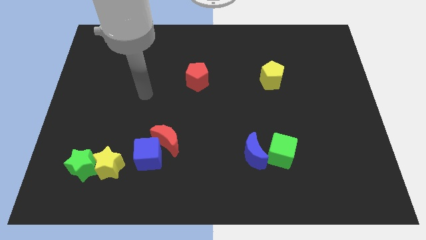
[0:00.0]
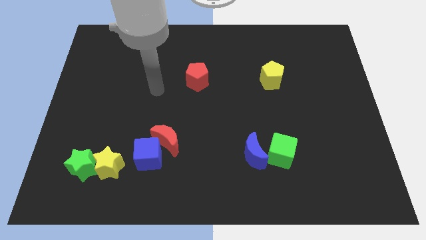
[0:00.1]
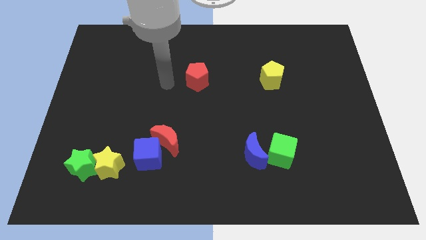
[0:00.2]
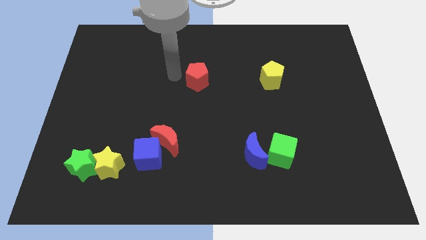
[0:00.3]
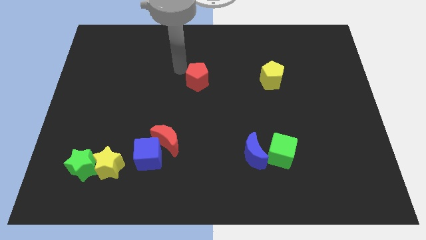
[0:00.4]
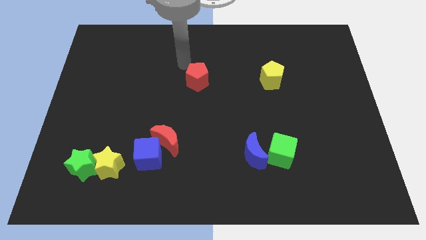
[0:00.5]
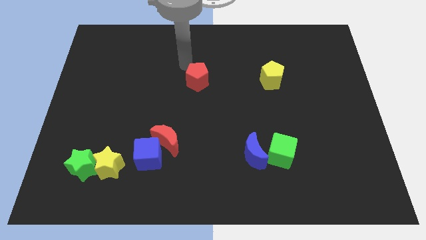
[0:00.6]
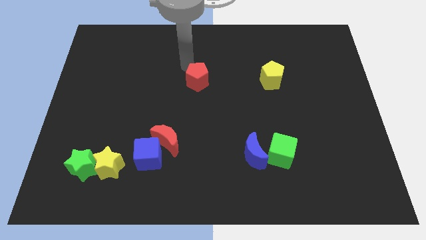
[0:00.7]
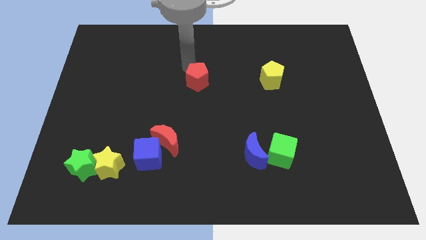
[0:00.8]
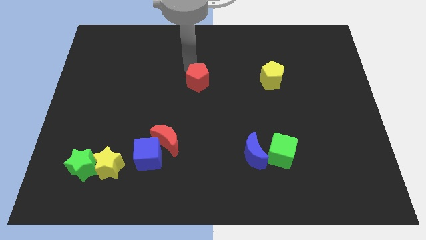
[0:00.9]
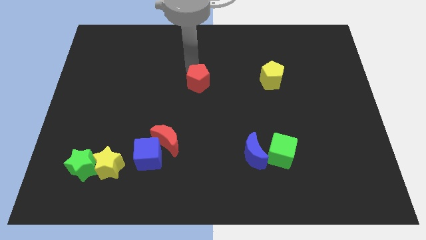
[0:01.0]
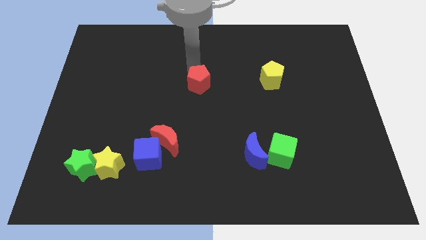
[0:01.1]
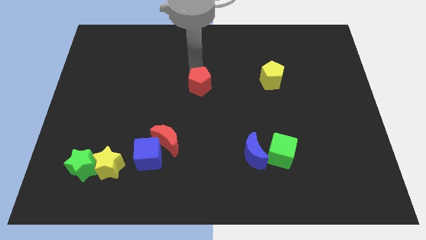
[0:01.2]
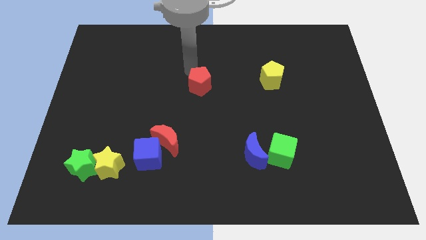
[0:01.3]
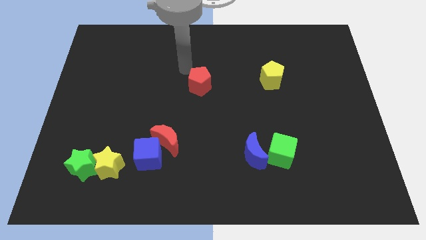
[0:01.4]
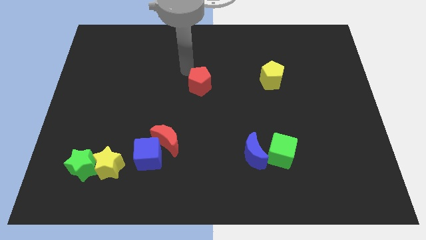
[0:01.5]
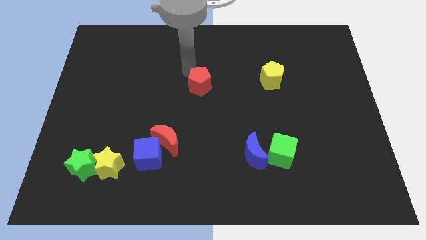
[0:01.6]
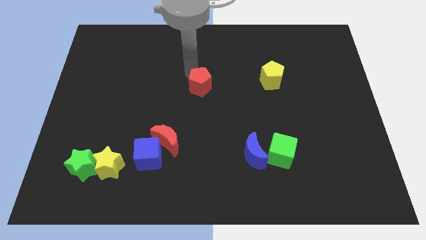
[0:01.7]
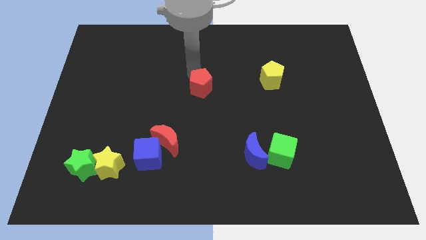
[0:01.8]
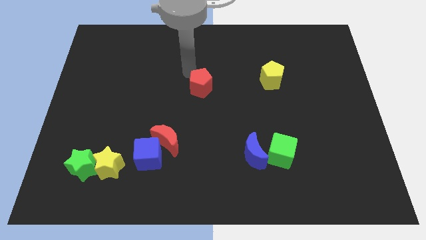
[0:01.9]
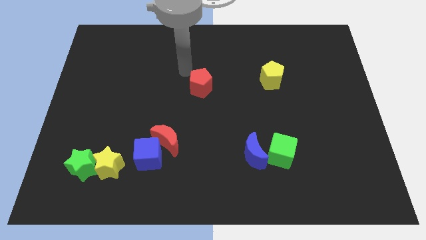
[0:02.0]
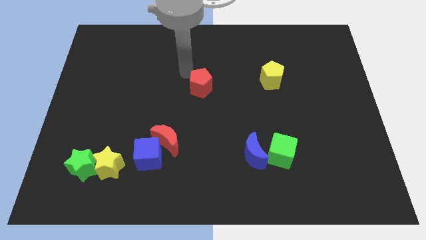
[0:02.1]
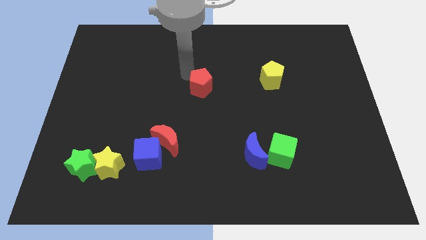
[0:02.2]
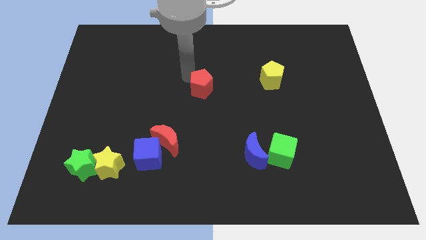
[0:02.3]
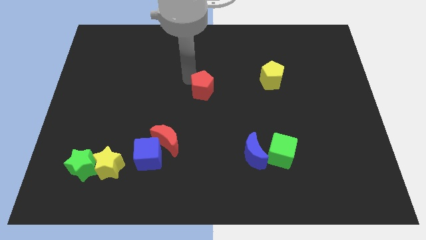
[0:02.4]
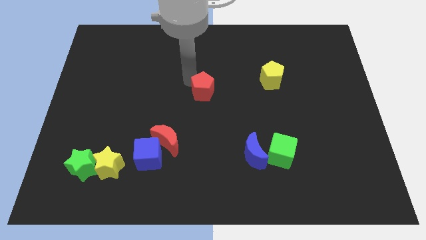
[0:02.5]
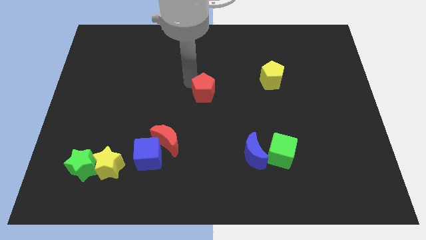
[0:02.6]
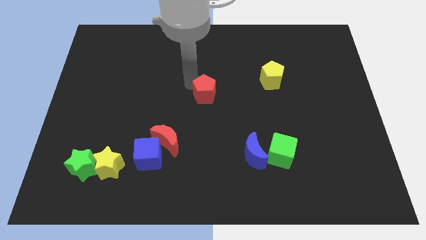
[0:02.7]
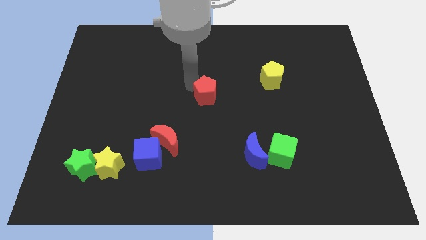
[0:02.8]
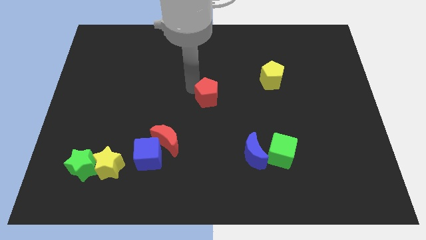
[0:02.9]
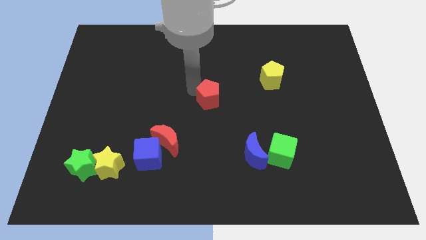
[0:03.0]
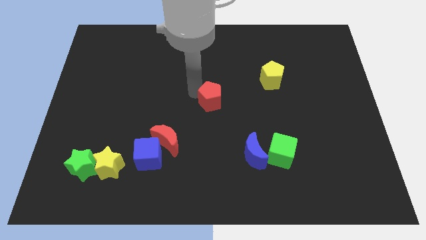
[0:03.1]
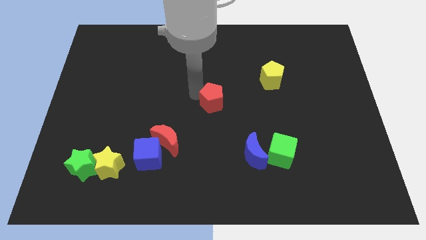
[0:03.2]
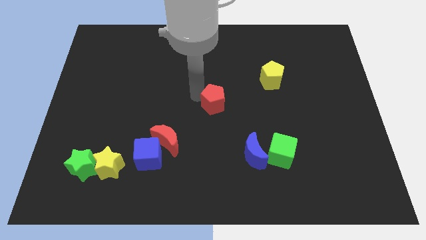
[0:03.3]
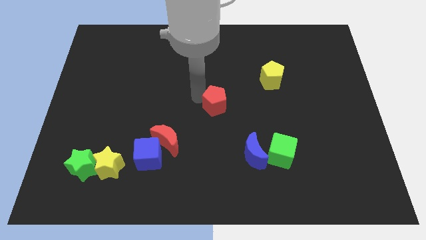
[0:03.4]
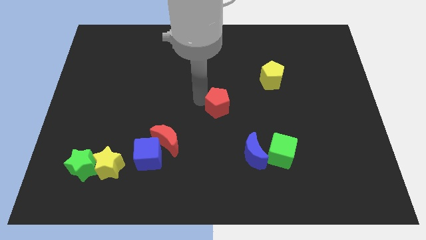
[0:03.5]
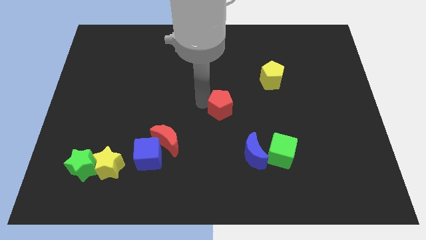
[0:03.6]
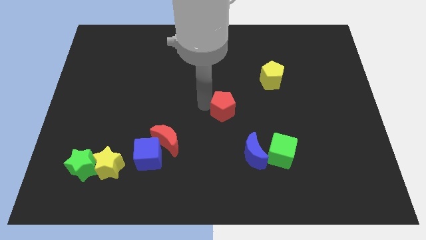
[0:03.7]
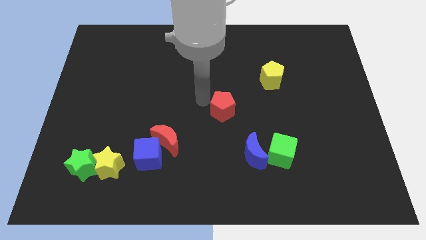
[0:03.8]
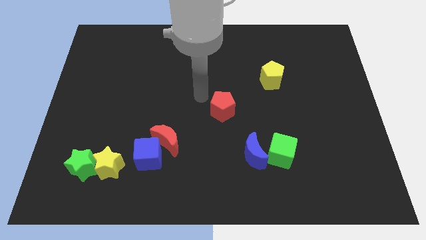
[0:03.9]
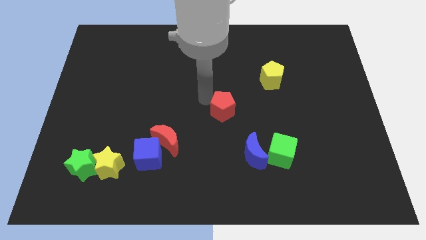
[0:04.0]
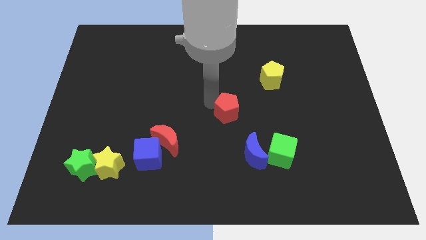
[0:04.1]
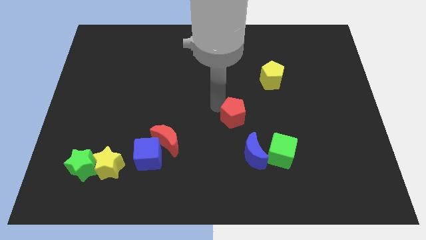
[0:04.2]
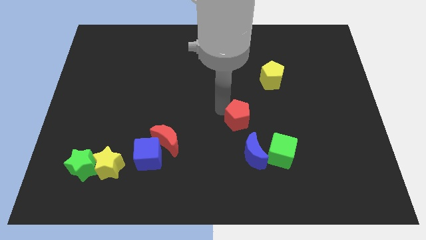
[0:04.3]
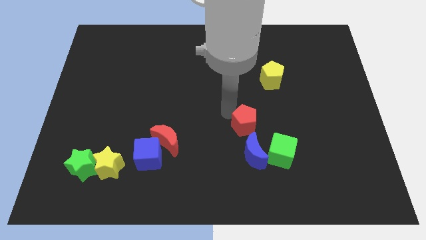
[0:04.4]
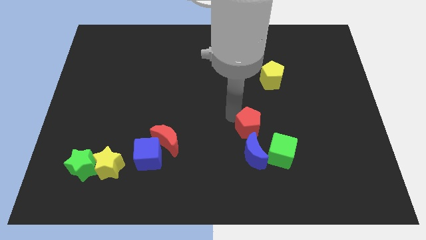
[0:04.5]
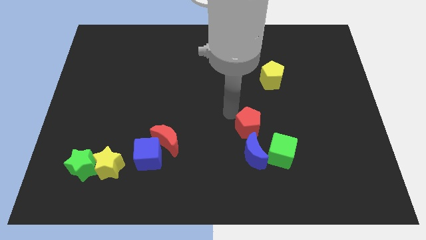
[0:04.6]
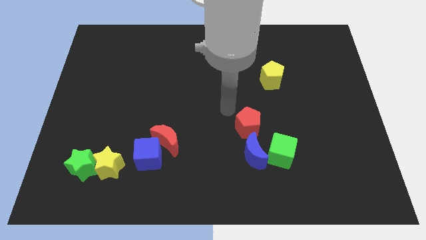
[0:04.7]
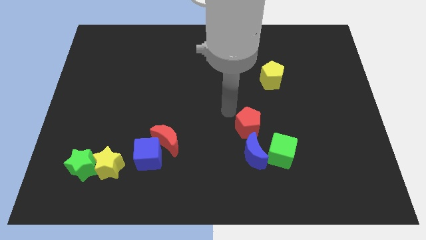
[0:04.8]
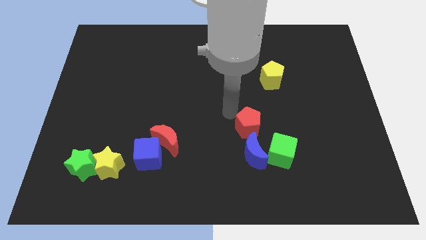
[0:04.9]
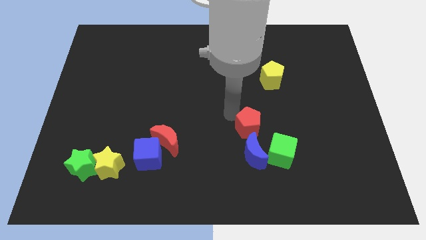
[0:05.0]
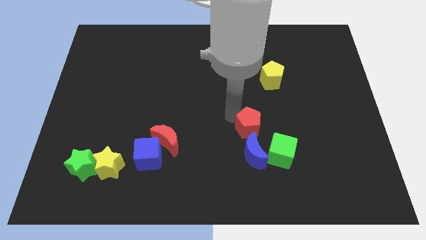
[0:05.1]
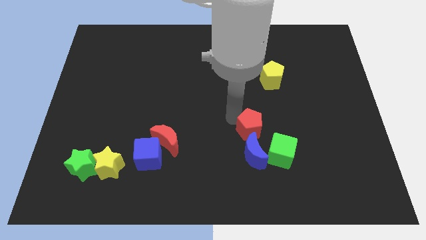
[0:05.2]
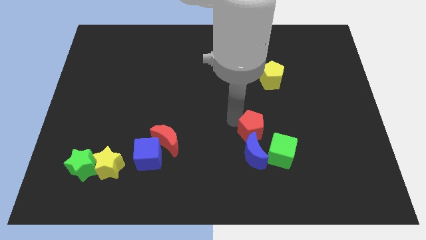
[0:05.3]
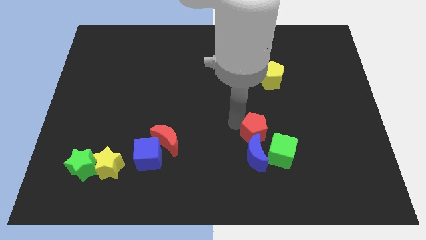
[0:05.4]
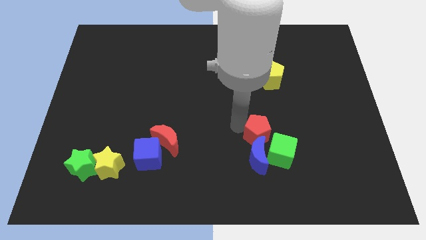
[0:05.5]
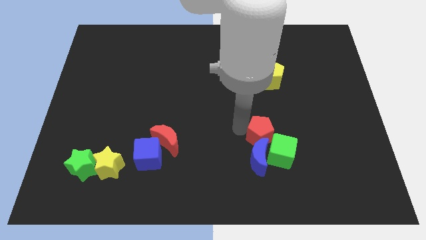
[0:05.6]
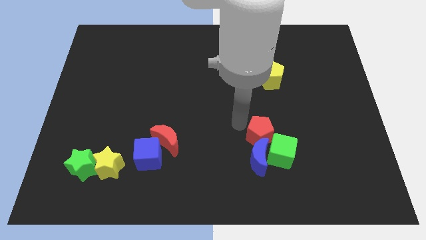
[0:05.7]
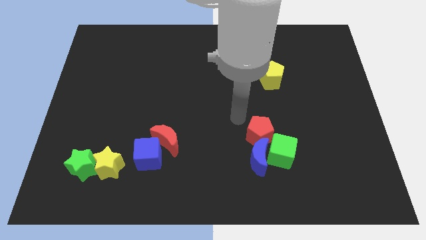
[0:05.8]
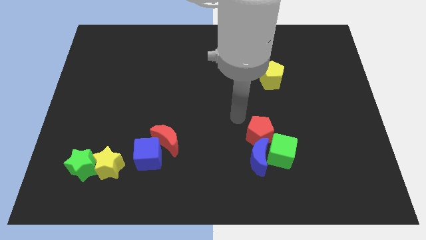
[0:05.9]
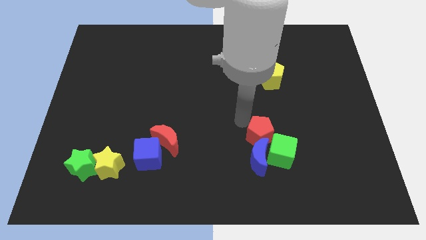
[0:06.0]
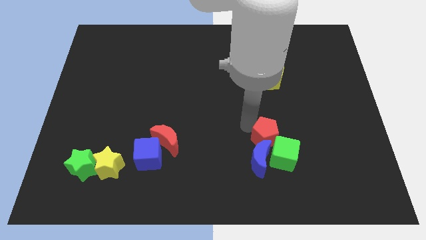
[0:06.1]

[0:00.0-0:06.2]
put the red pentagon next to the green cube

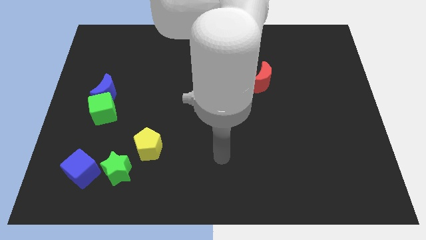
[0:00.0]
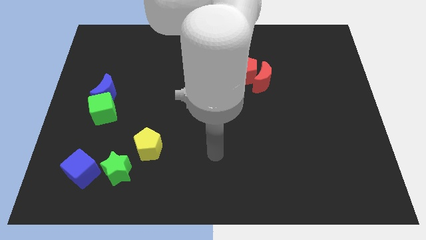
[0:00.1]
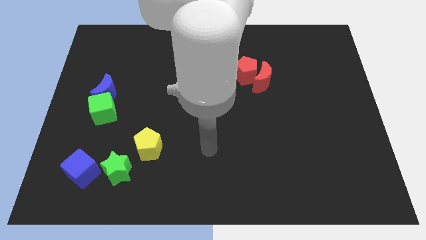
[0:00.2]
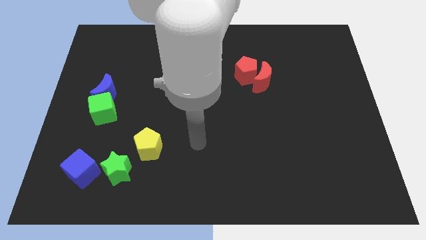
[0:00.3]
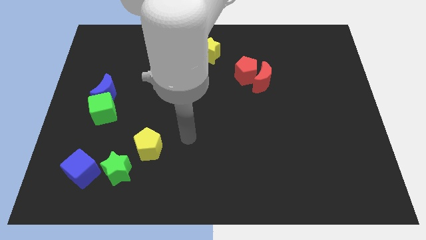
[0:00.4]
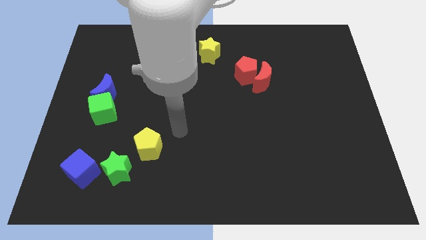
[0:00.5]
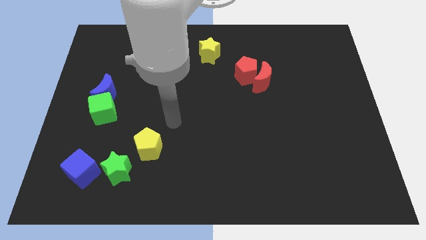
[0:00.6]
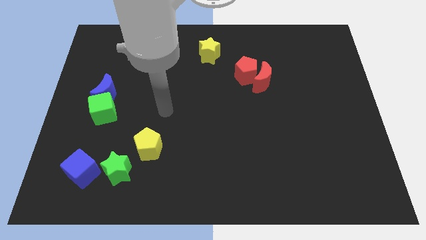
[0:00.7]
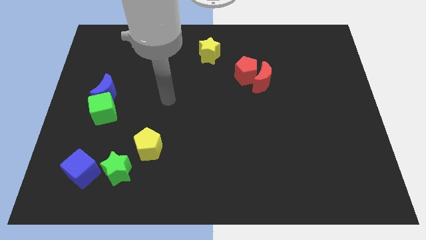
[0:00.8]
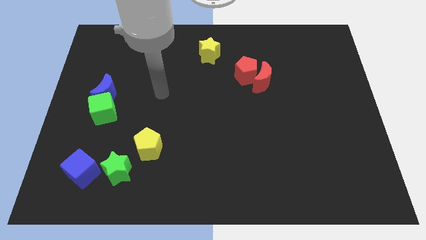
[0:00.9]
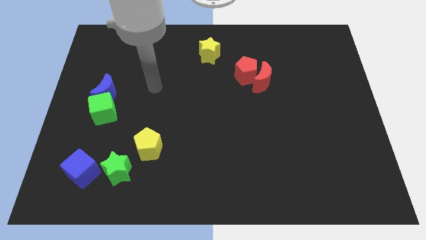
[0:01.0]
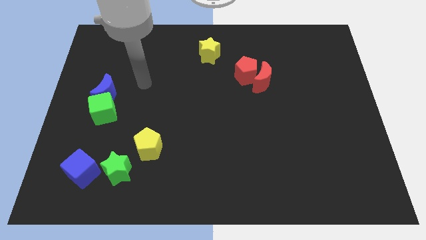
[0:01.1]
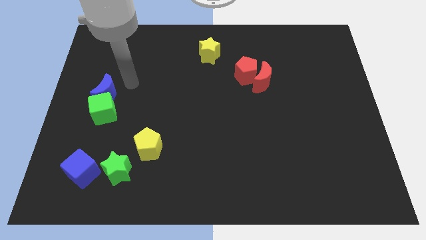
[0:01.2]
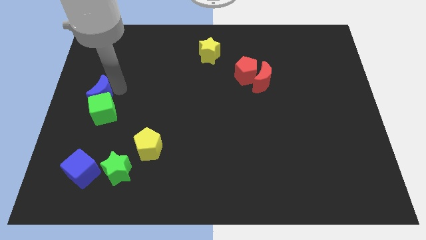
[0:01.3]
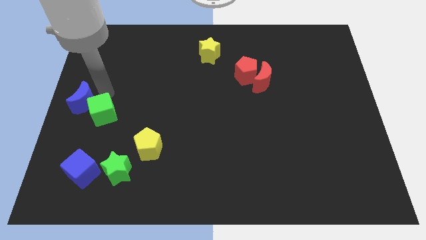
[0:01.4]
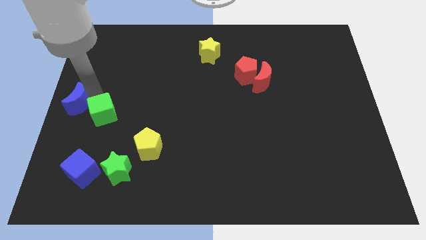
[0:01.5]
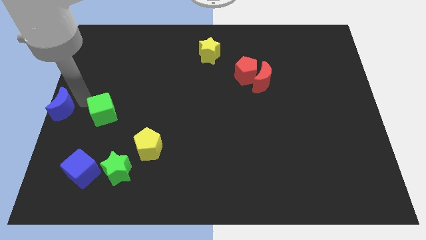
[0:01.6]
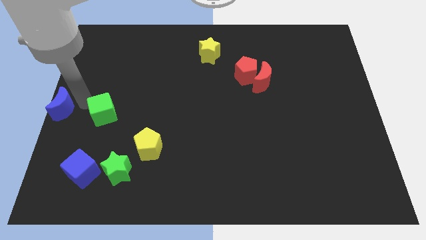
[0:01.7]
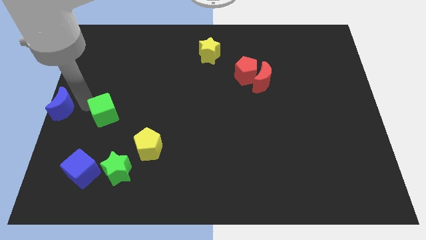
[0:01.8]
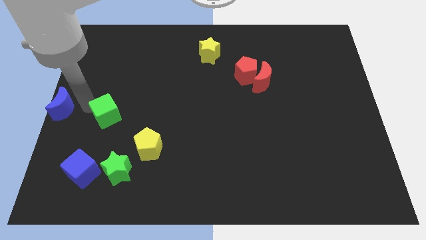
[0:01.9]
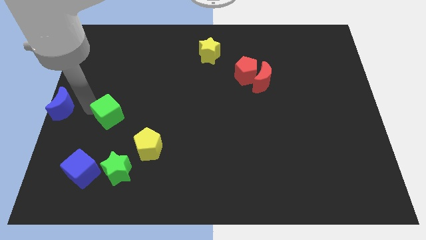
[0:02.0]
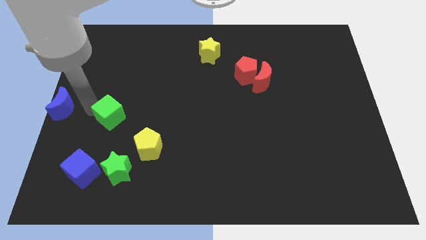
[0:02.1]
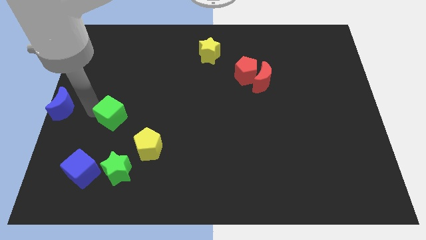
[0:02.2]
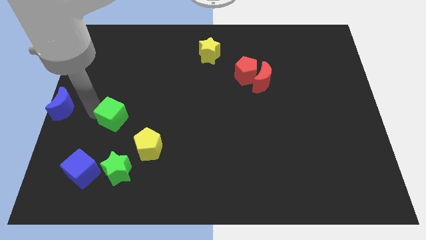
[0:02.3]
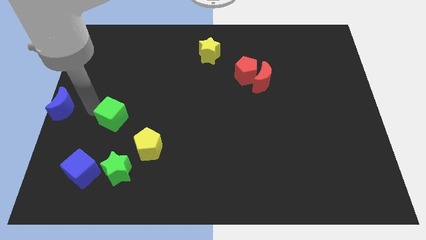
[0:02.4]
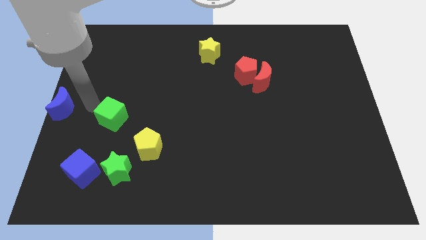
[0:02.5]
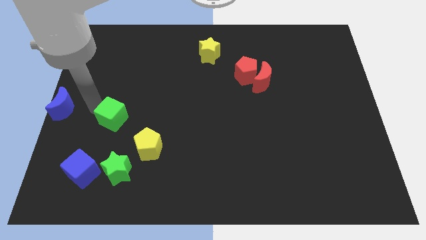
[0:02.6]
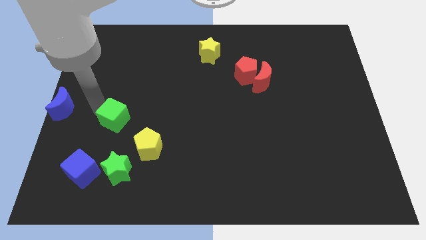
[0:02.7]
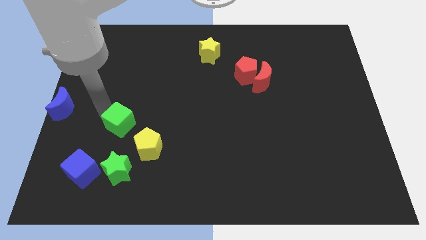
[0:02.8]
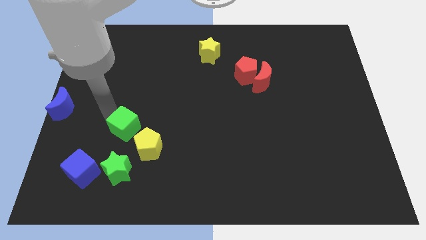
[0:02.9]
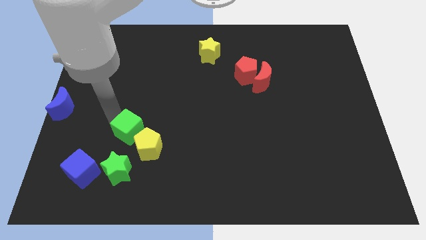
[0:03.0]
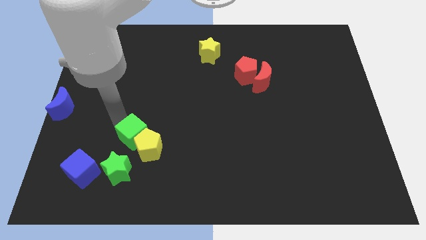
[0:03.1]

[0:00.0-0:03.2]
slide the green cube next to the yellow pentagon
